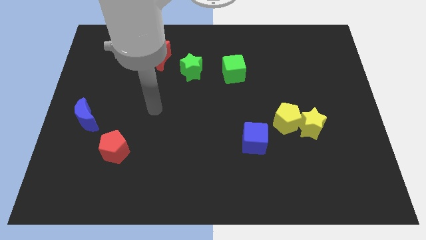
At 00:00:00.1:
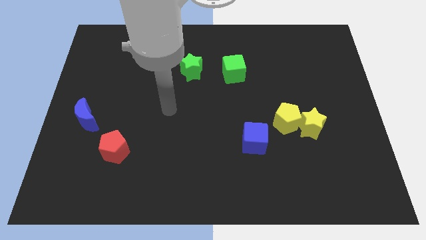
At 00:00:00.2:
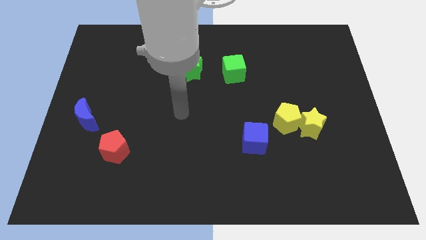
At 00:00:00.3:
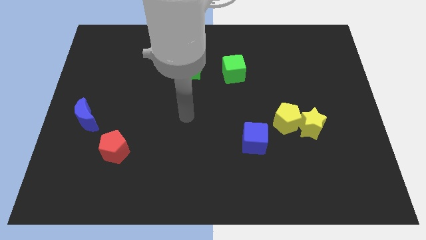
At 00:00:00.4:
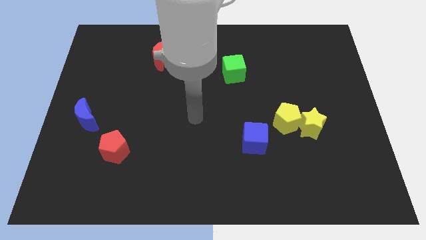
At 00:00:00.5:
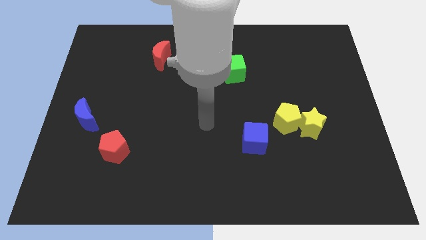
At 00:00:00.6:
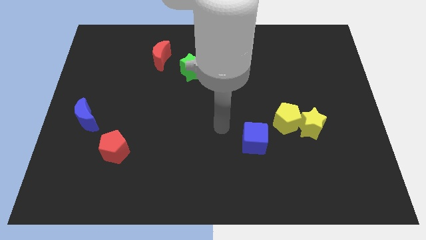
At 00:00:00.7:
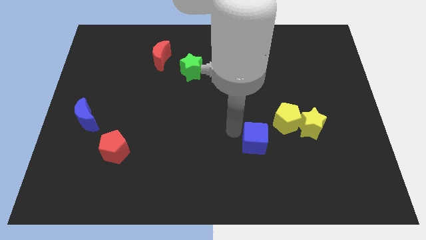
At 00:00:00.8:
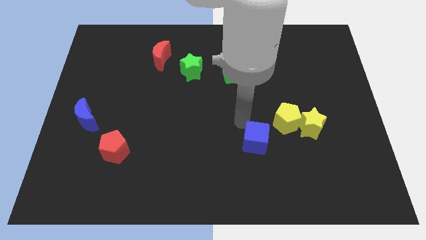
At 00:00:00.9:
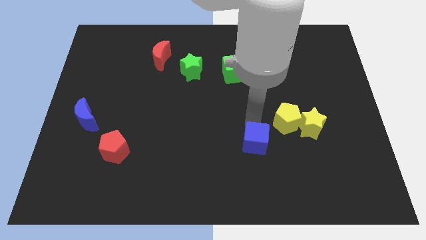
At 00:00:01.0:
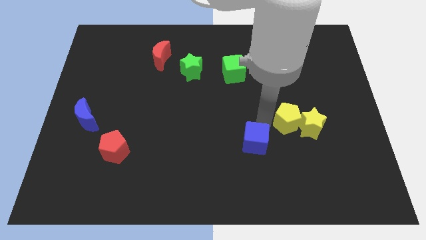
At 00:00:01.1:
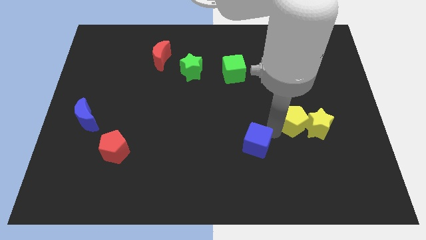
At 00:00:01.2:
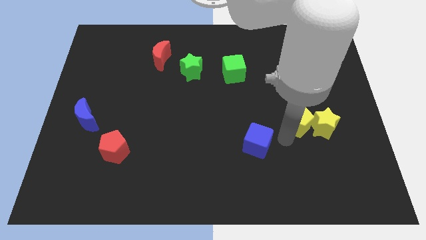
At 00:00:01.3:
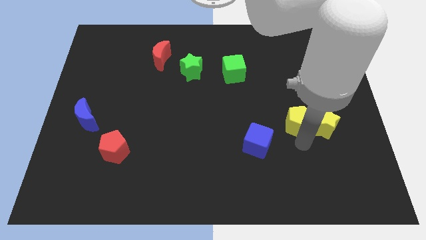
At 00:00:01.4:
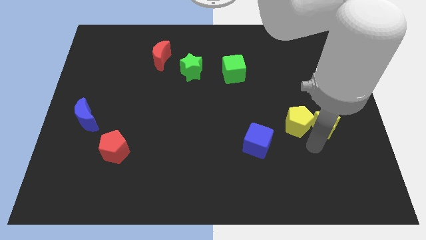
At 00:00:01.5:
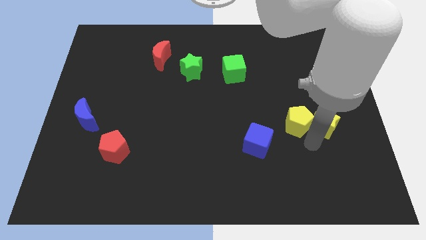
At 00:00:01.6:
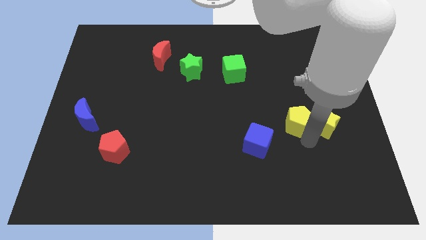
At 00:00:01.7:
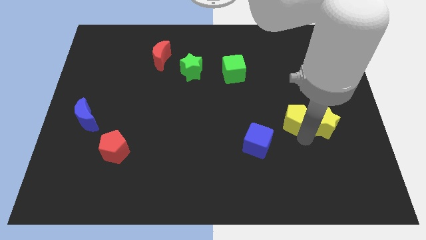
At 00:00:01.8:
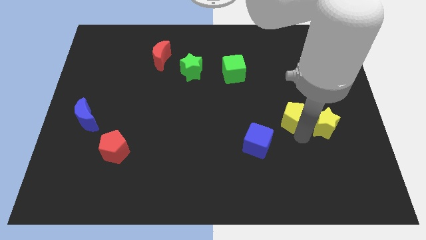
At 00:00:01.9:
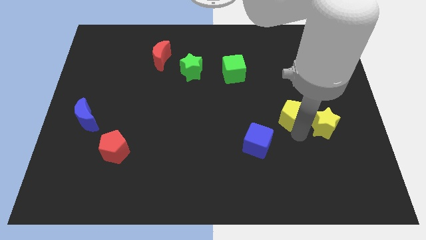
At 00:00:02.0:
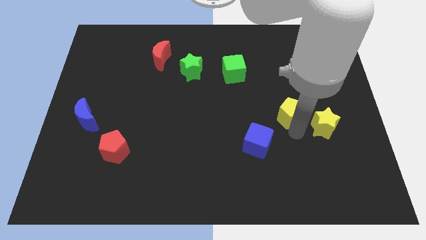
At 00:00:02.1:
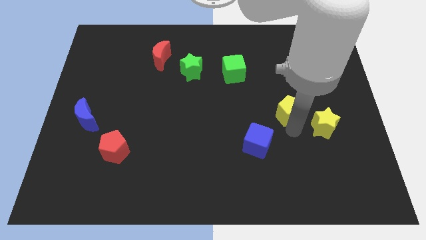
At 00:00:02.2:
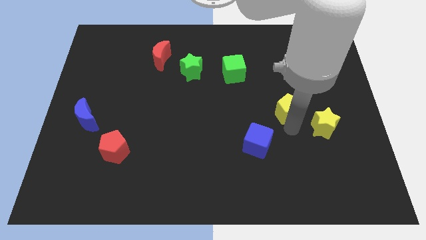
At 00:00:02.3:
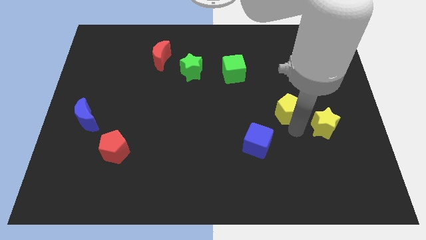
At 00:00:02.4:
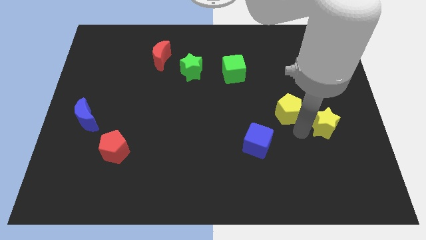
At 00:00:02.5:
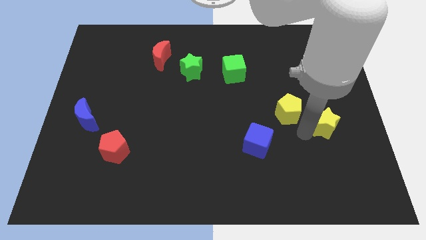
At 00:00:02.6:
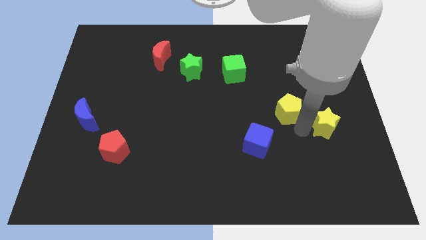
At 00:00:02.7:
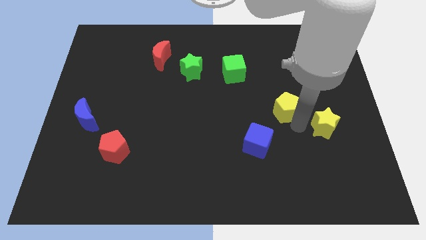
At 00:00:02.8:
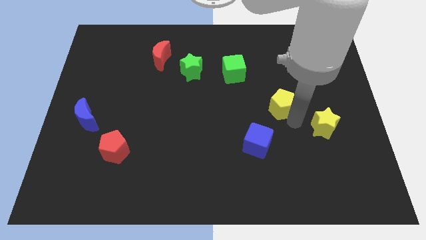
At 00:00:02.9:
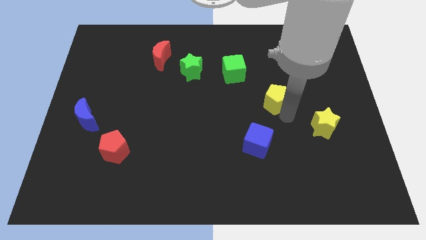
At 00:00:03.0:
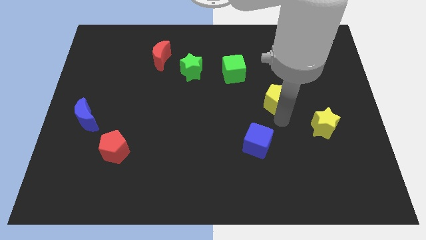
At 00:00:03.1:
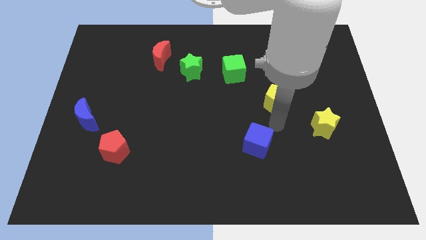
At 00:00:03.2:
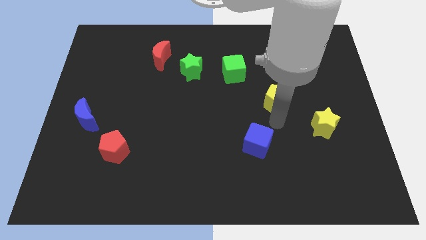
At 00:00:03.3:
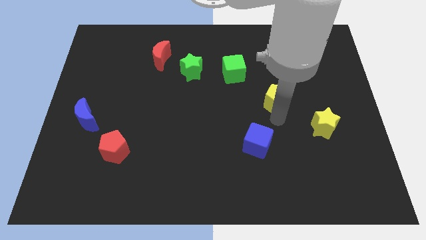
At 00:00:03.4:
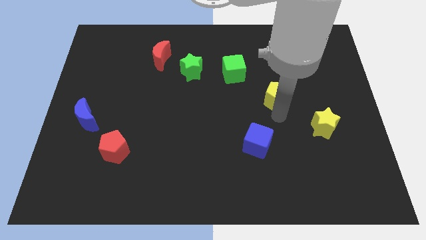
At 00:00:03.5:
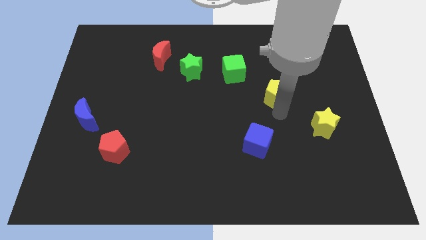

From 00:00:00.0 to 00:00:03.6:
move the yellow pentagon a little bit up

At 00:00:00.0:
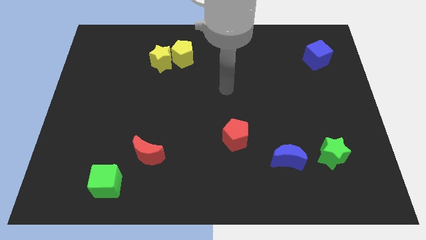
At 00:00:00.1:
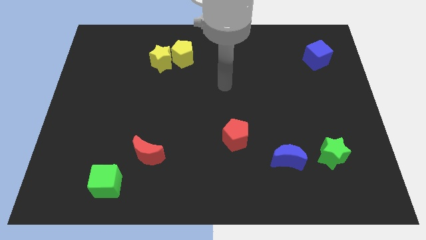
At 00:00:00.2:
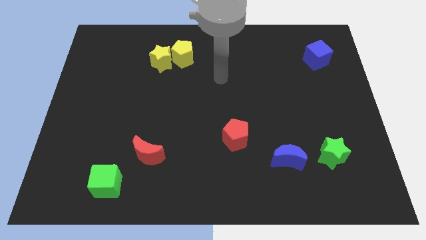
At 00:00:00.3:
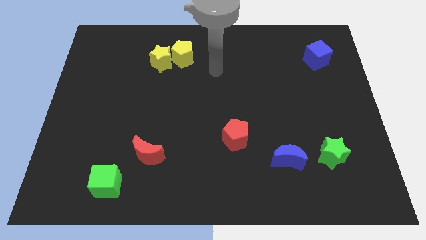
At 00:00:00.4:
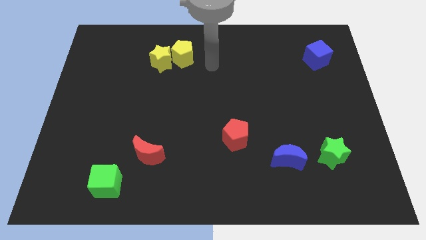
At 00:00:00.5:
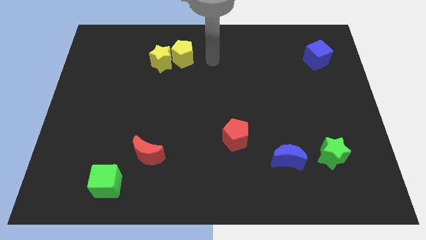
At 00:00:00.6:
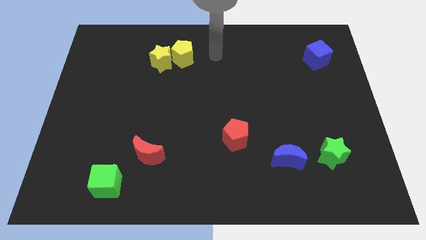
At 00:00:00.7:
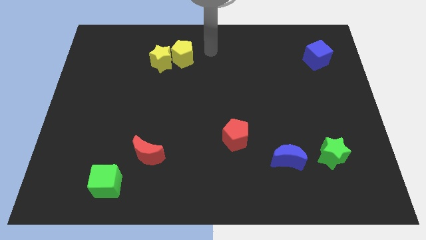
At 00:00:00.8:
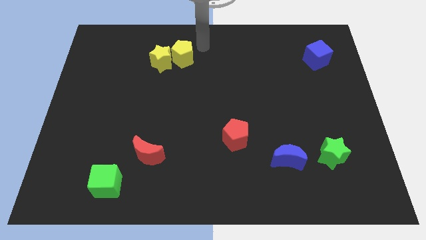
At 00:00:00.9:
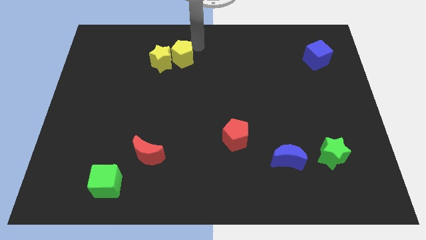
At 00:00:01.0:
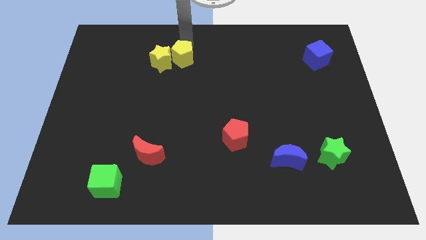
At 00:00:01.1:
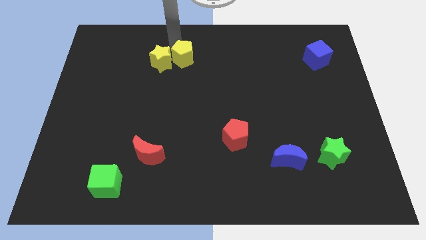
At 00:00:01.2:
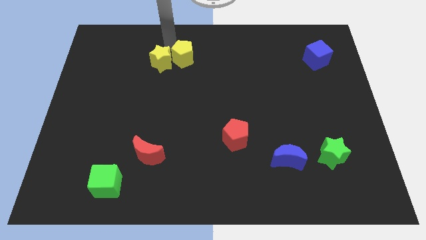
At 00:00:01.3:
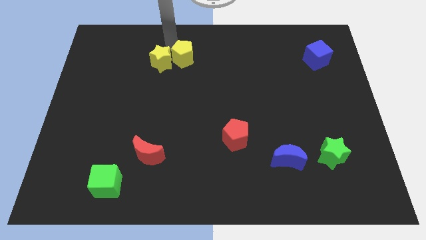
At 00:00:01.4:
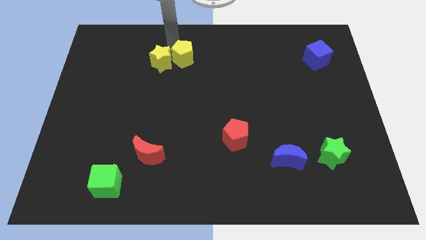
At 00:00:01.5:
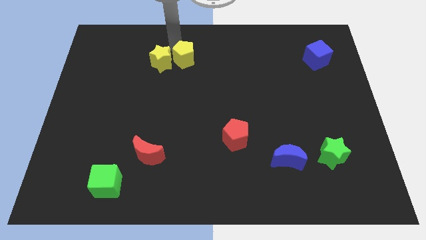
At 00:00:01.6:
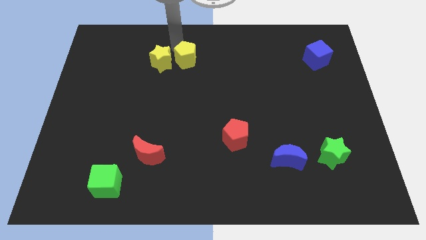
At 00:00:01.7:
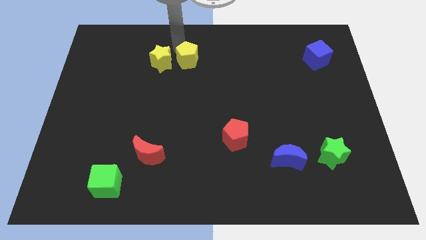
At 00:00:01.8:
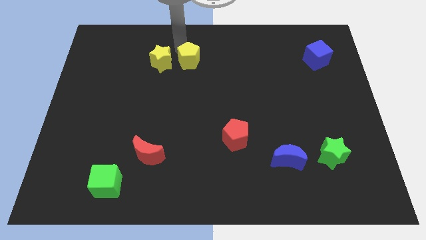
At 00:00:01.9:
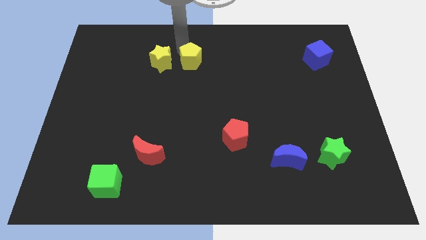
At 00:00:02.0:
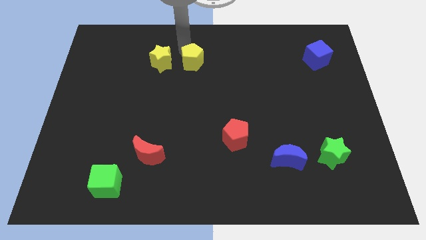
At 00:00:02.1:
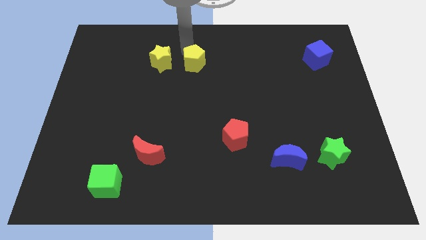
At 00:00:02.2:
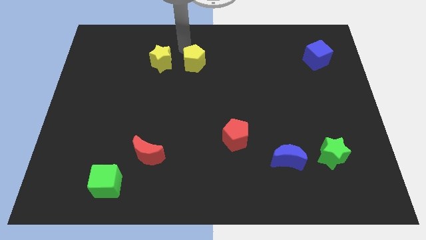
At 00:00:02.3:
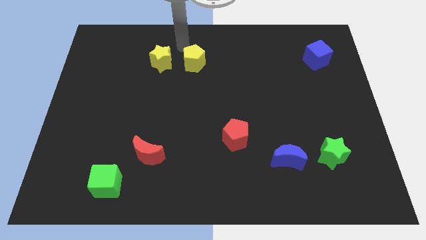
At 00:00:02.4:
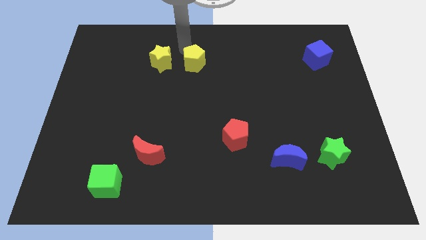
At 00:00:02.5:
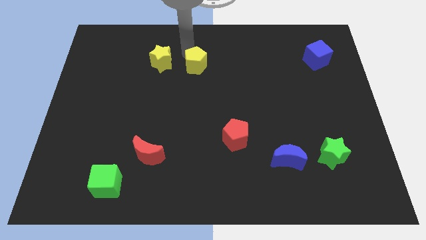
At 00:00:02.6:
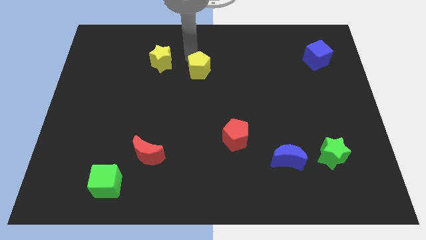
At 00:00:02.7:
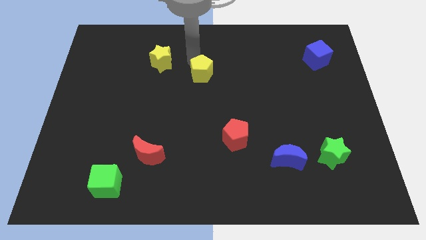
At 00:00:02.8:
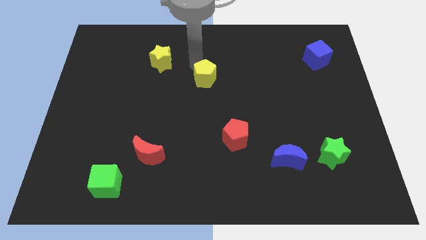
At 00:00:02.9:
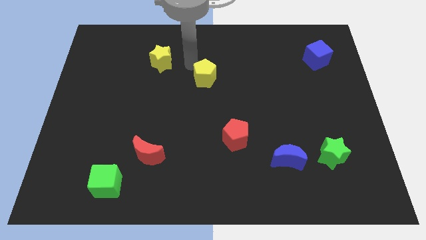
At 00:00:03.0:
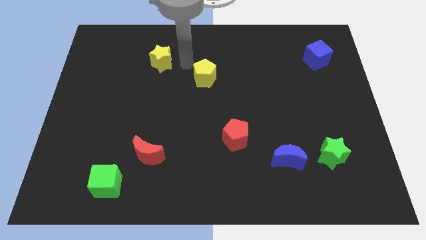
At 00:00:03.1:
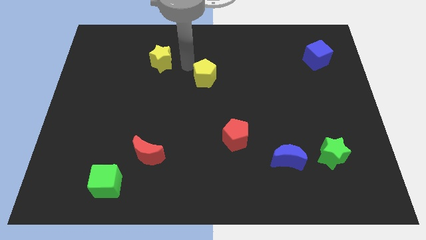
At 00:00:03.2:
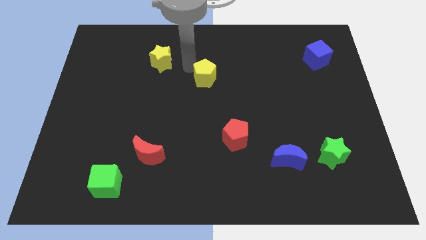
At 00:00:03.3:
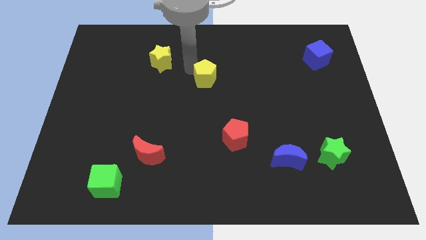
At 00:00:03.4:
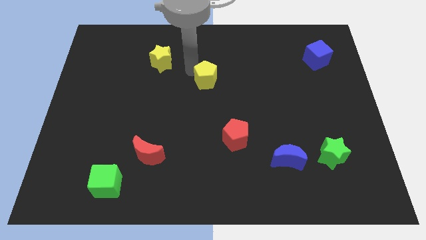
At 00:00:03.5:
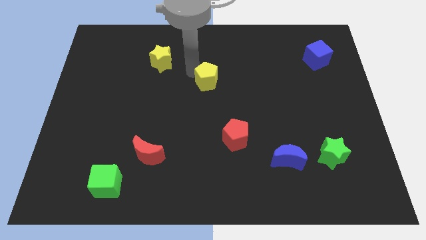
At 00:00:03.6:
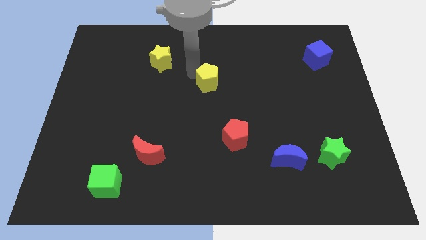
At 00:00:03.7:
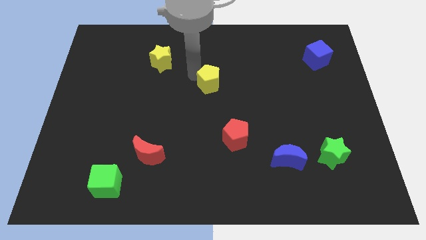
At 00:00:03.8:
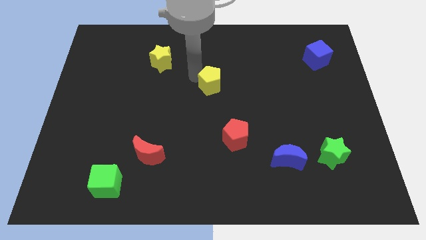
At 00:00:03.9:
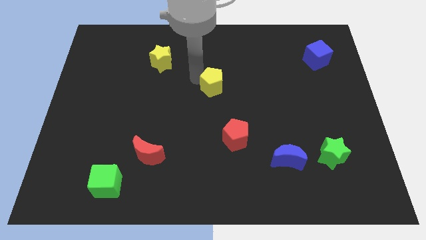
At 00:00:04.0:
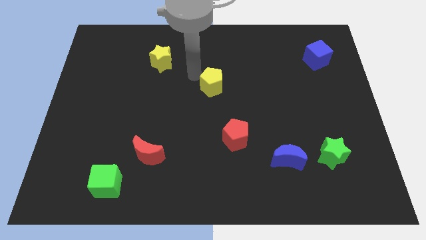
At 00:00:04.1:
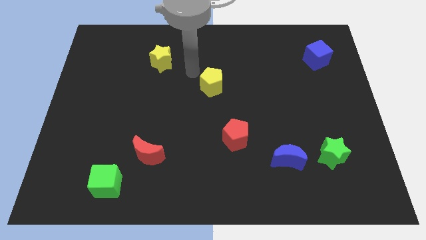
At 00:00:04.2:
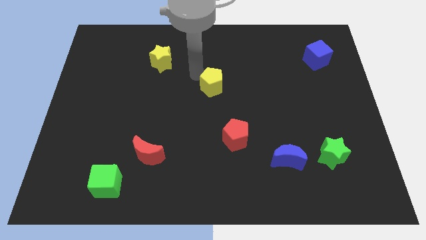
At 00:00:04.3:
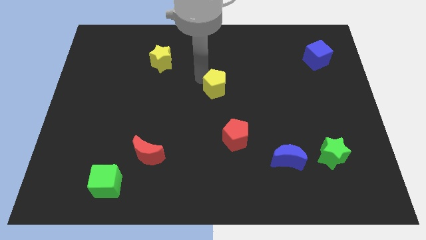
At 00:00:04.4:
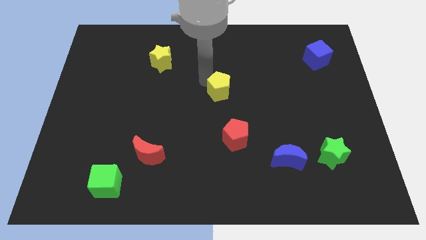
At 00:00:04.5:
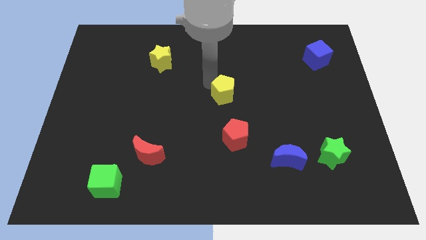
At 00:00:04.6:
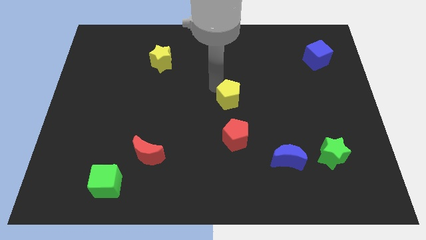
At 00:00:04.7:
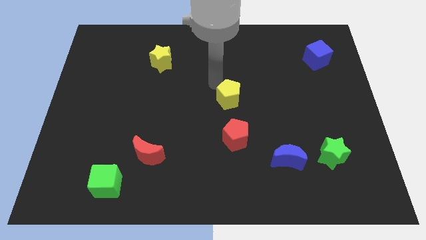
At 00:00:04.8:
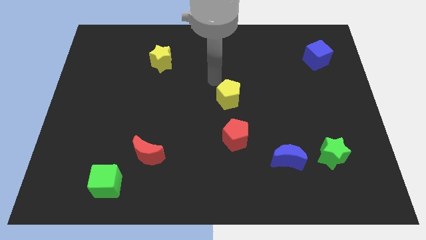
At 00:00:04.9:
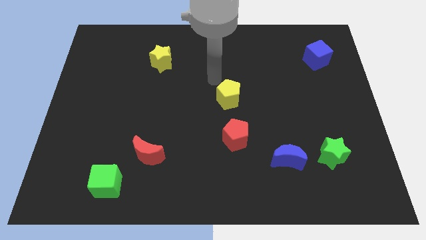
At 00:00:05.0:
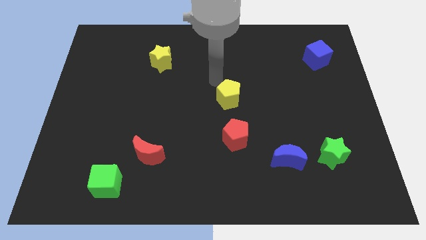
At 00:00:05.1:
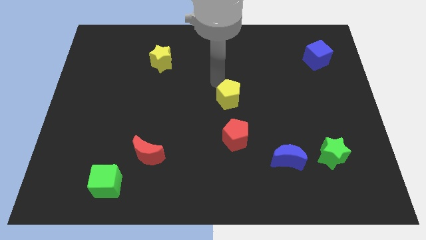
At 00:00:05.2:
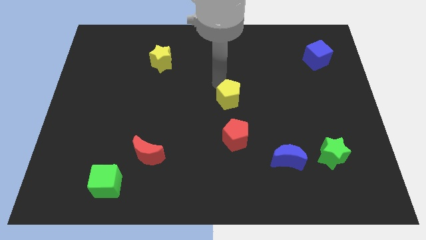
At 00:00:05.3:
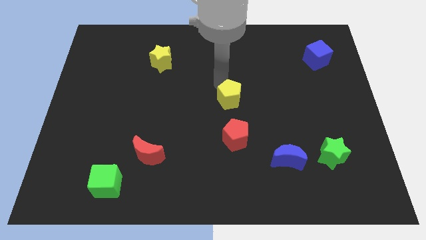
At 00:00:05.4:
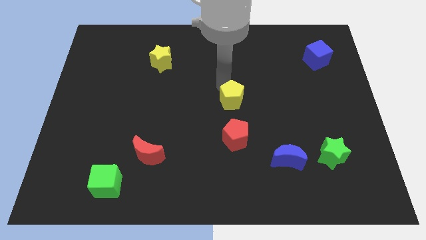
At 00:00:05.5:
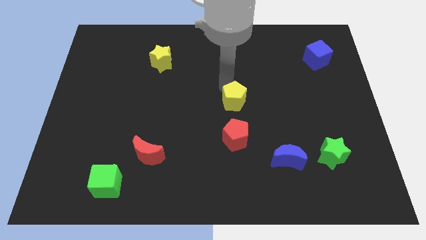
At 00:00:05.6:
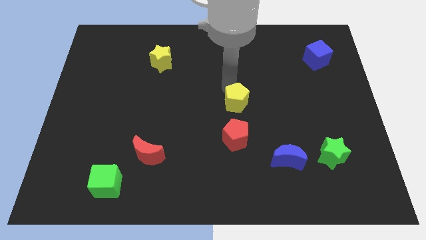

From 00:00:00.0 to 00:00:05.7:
move the yellow pentagon down and then to the right
